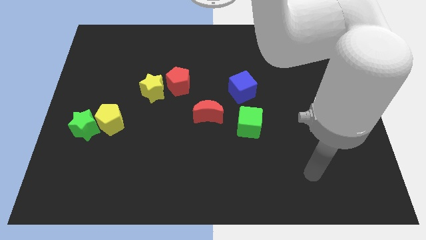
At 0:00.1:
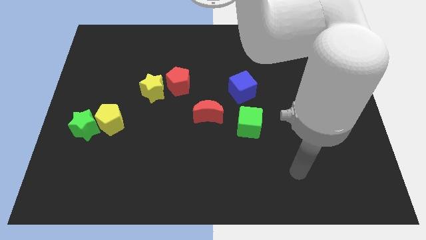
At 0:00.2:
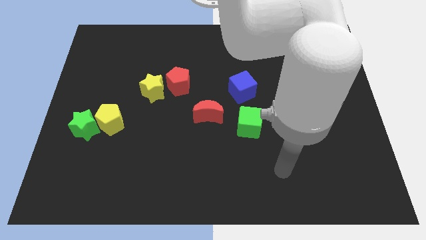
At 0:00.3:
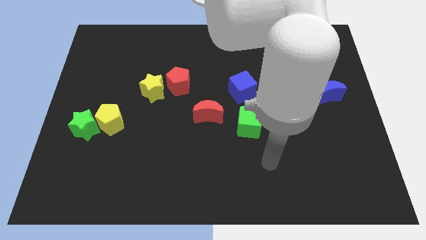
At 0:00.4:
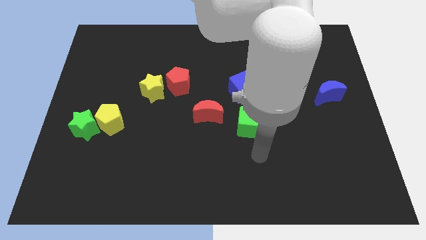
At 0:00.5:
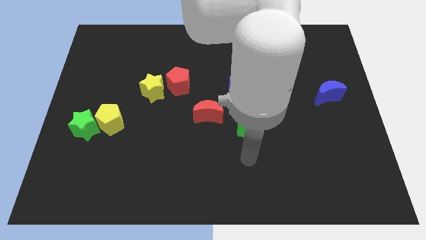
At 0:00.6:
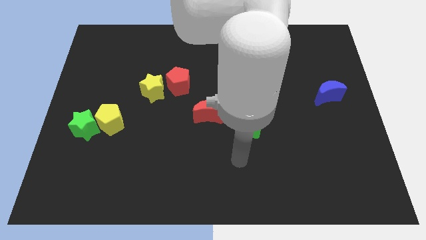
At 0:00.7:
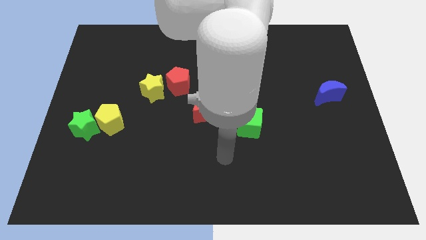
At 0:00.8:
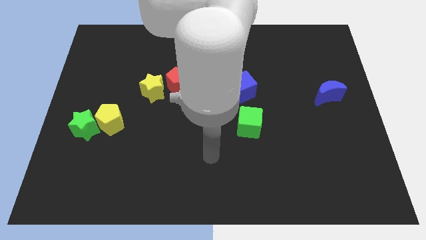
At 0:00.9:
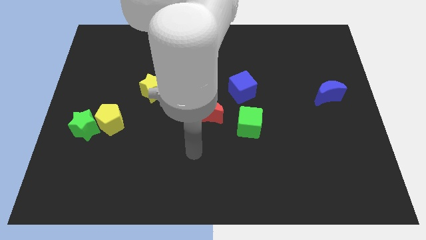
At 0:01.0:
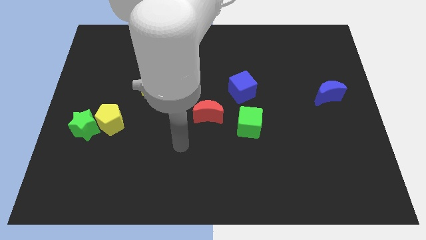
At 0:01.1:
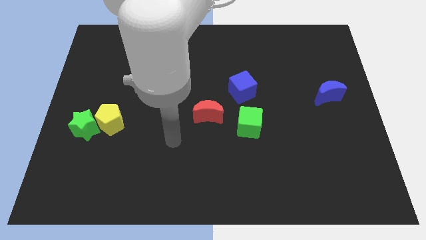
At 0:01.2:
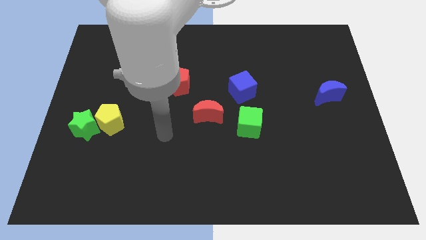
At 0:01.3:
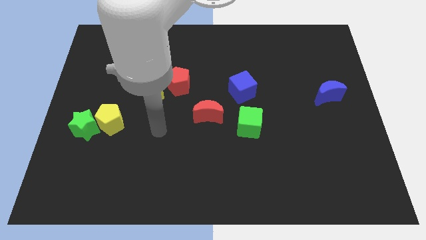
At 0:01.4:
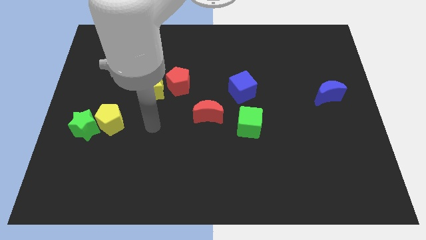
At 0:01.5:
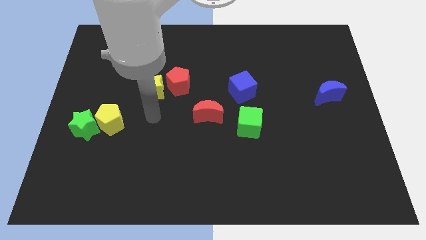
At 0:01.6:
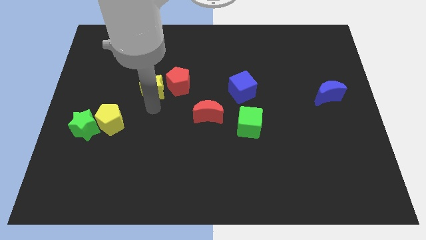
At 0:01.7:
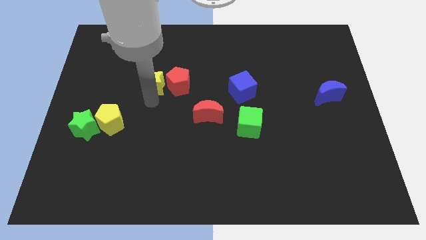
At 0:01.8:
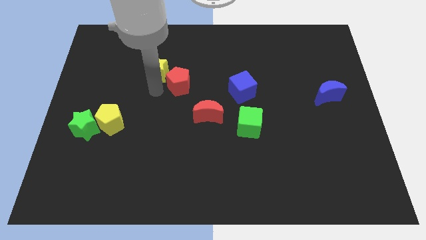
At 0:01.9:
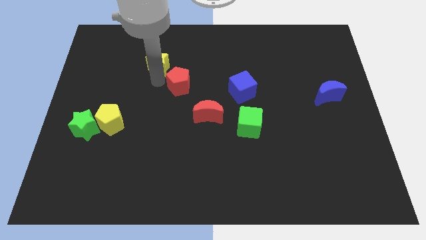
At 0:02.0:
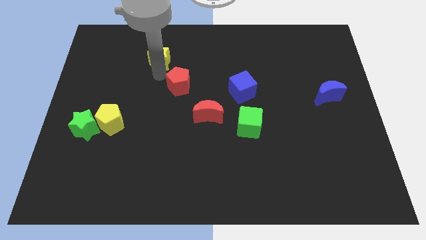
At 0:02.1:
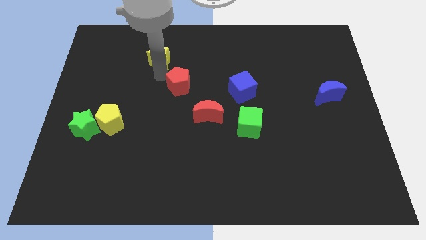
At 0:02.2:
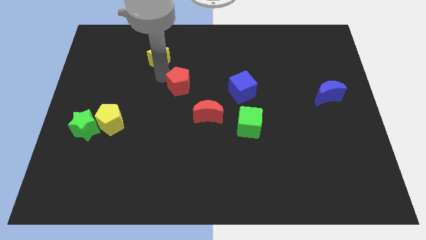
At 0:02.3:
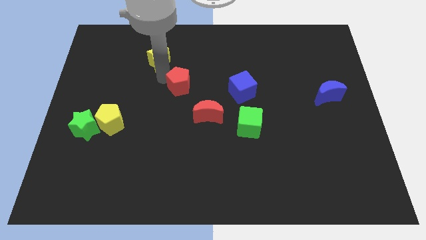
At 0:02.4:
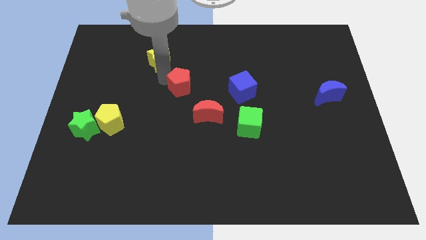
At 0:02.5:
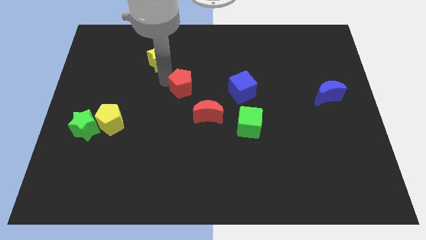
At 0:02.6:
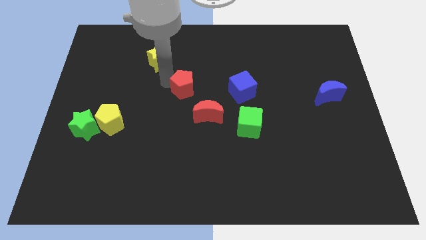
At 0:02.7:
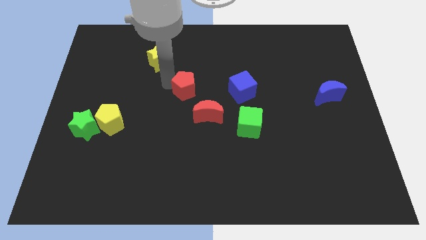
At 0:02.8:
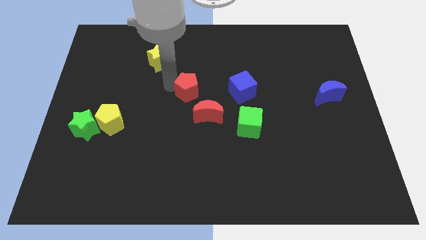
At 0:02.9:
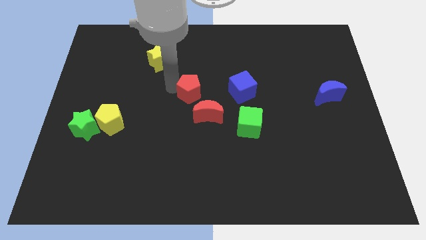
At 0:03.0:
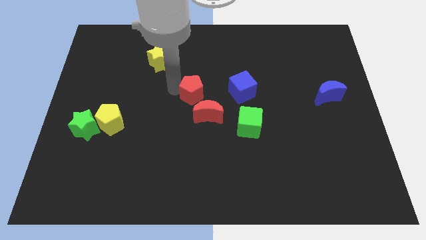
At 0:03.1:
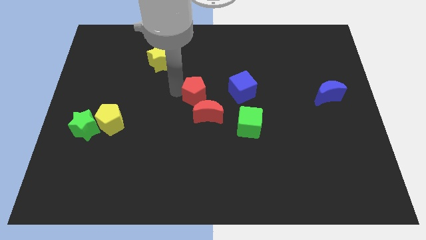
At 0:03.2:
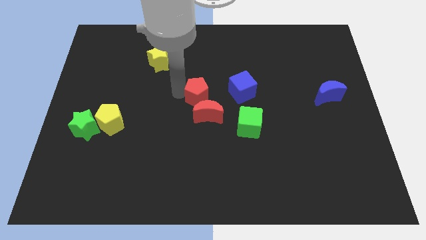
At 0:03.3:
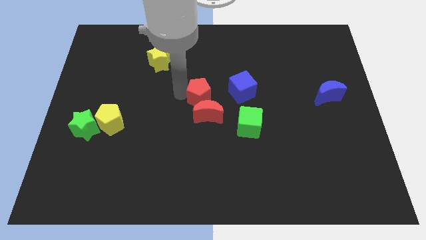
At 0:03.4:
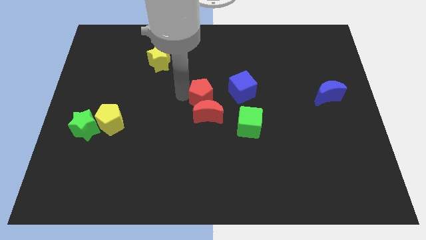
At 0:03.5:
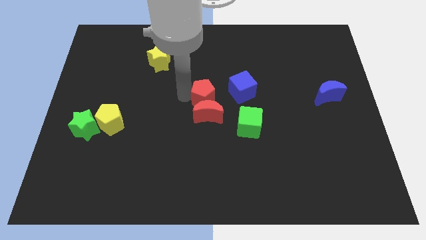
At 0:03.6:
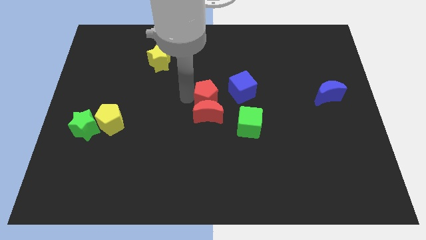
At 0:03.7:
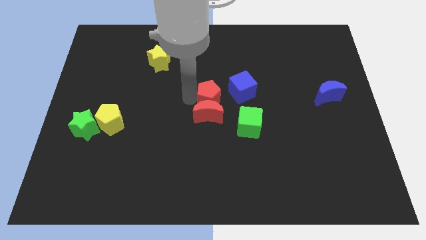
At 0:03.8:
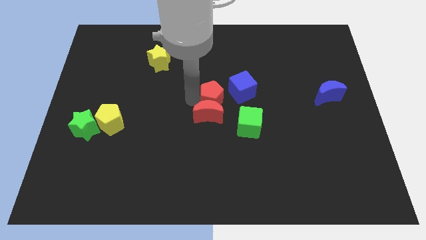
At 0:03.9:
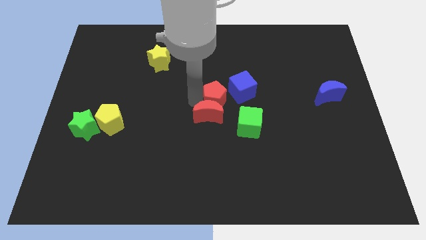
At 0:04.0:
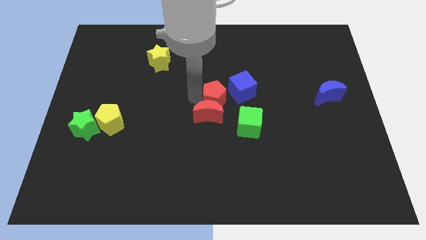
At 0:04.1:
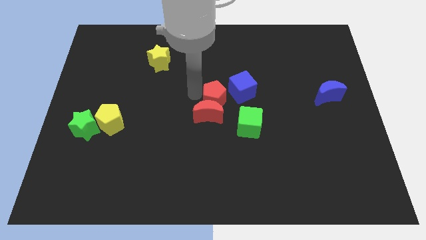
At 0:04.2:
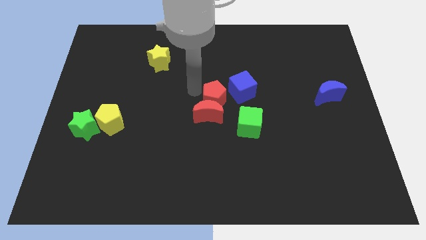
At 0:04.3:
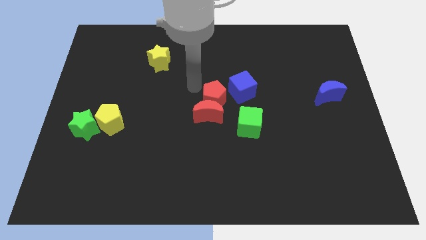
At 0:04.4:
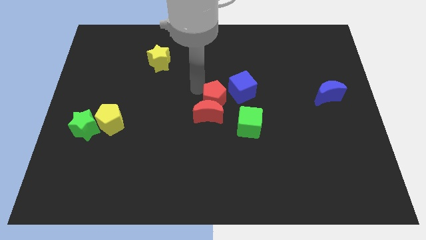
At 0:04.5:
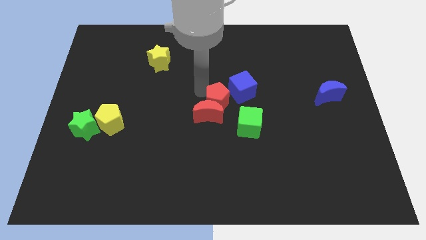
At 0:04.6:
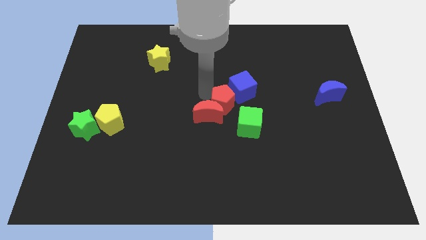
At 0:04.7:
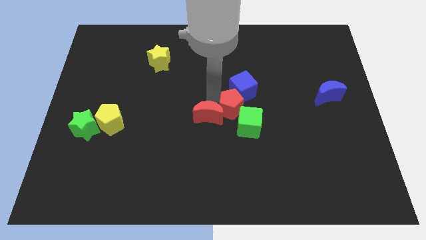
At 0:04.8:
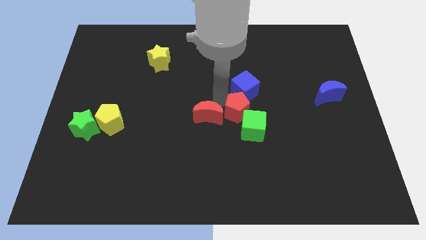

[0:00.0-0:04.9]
move the red pentagon towards the green cube

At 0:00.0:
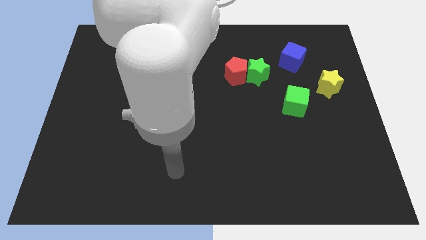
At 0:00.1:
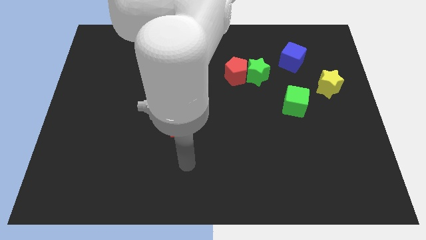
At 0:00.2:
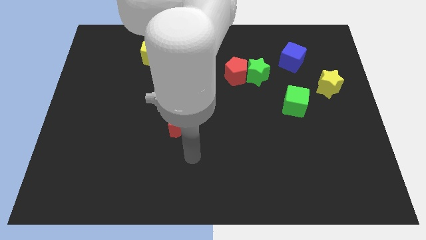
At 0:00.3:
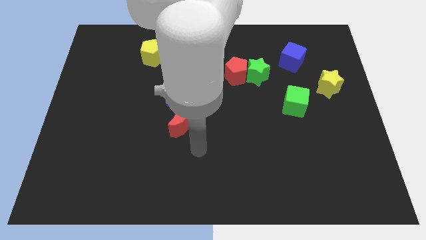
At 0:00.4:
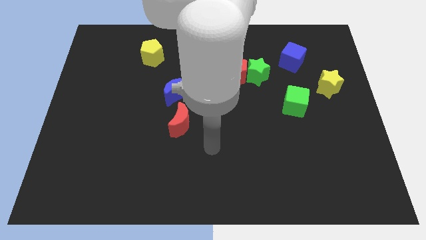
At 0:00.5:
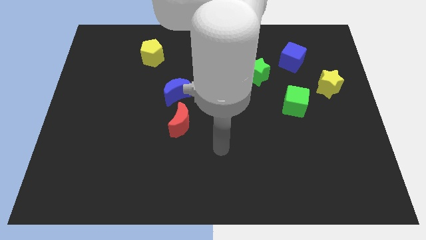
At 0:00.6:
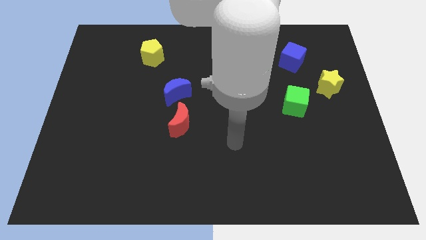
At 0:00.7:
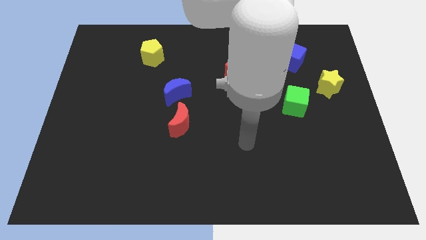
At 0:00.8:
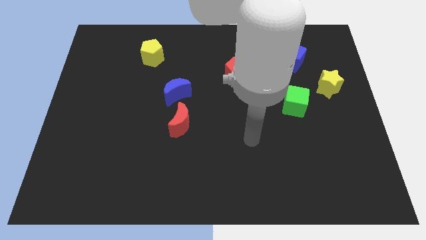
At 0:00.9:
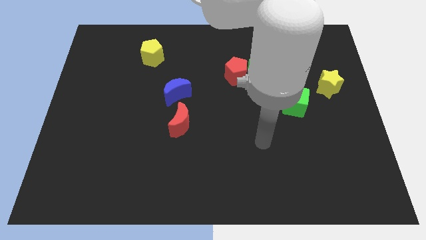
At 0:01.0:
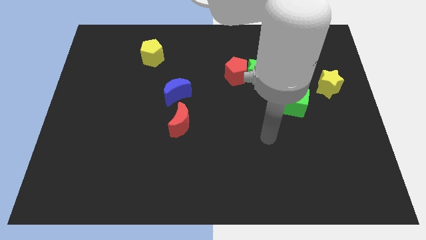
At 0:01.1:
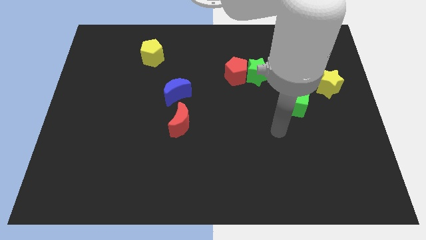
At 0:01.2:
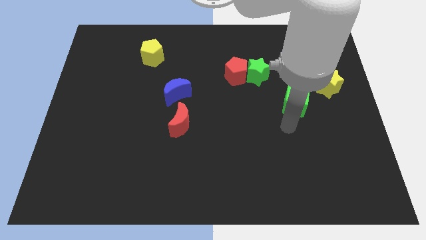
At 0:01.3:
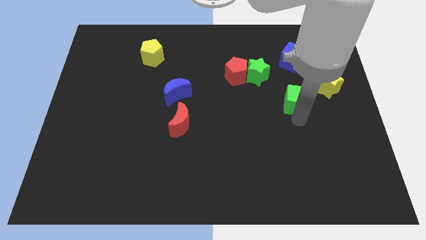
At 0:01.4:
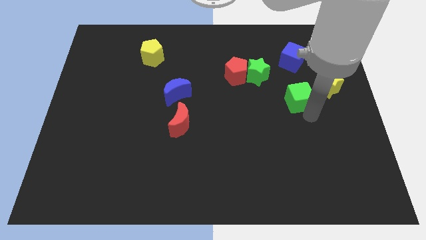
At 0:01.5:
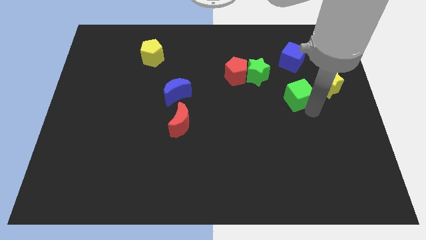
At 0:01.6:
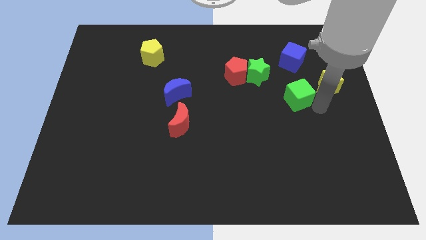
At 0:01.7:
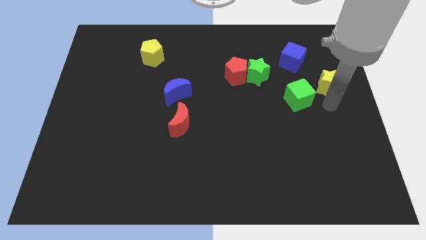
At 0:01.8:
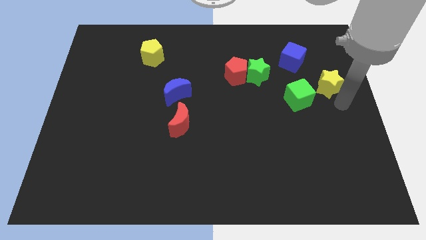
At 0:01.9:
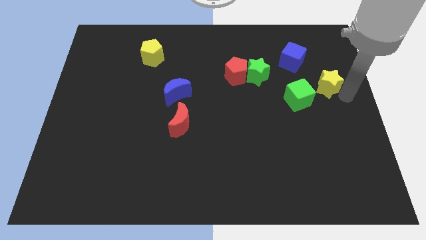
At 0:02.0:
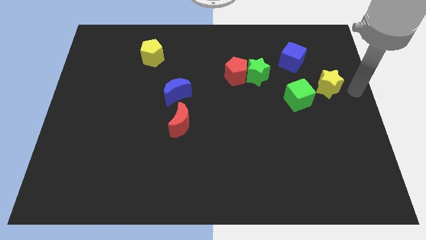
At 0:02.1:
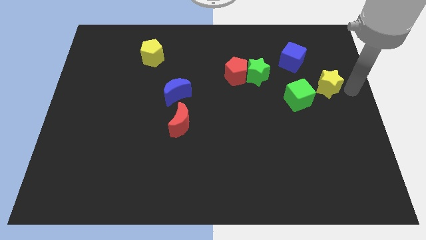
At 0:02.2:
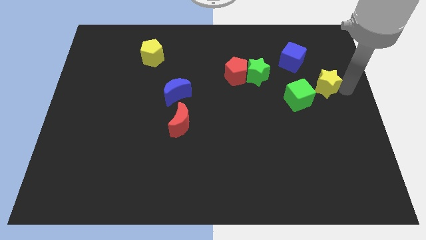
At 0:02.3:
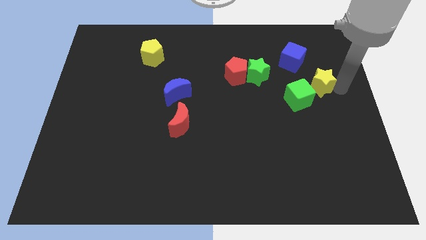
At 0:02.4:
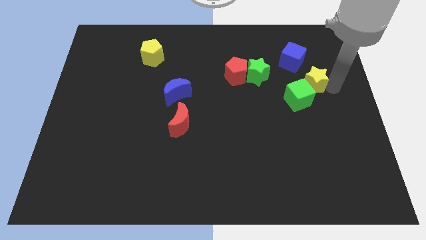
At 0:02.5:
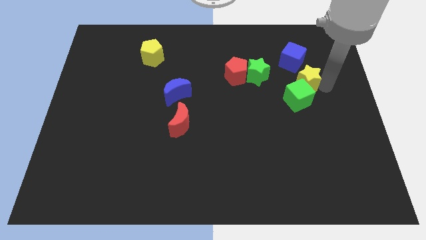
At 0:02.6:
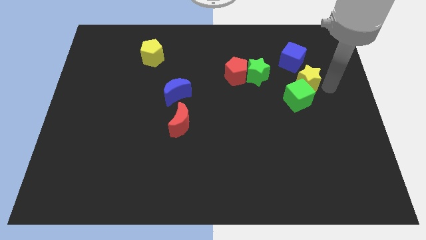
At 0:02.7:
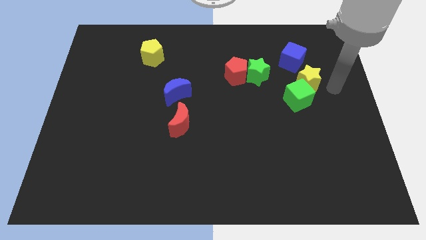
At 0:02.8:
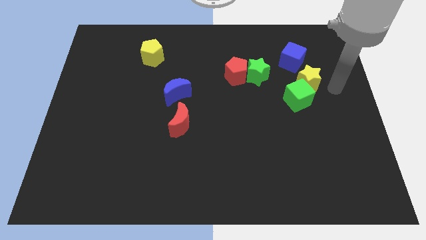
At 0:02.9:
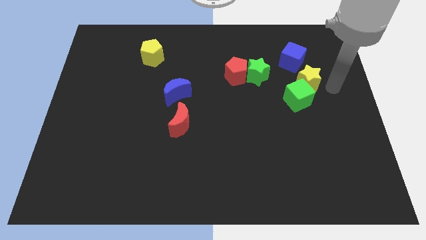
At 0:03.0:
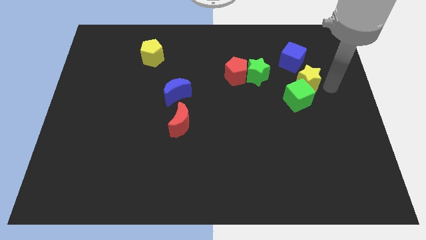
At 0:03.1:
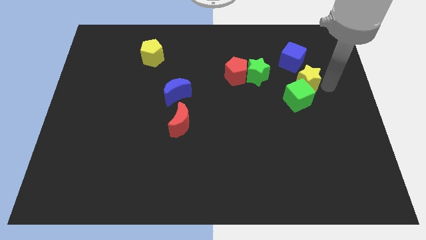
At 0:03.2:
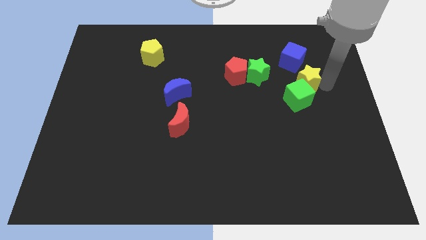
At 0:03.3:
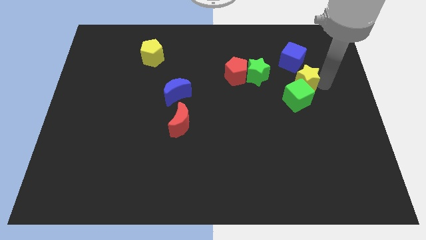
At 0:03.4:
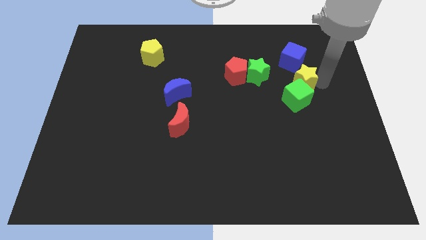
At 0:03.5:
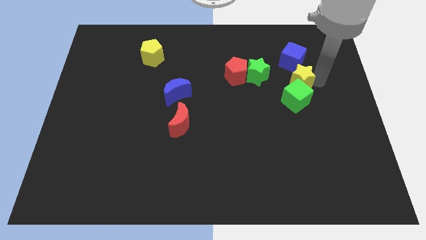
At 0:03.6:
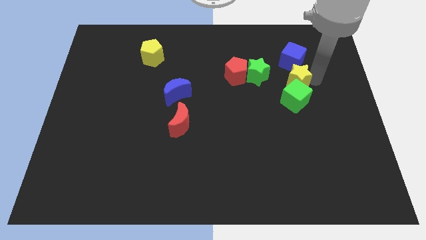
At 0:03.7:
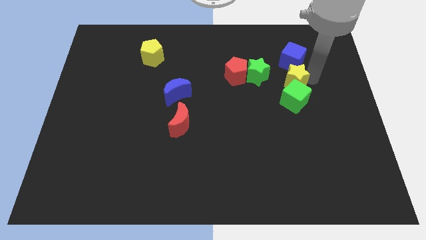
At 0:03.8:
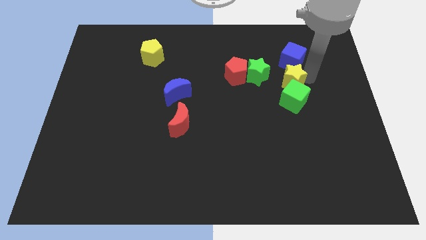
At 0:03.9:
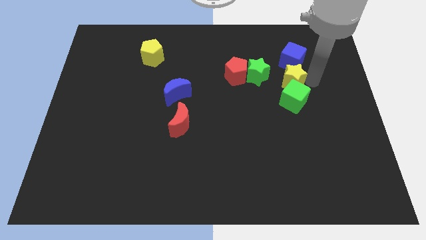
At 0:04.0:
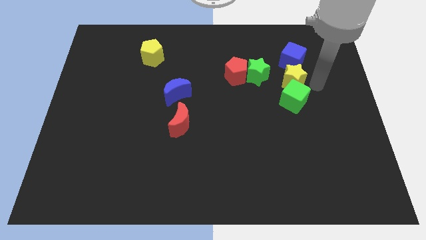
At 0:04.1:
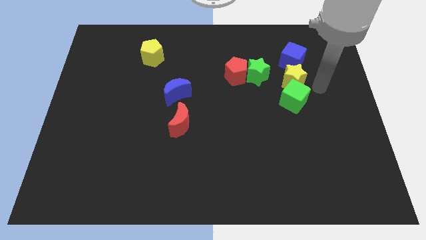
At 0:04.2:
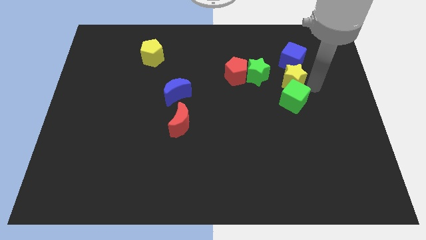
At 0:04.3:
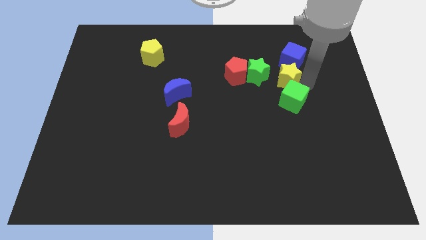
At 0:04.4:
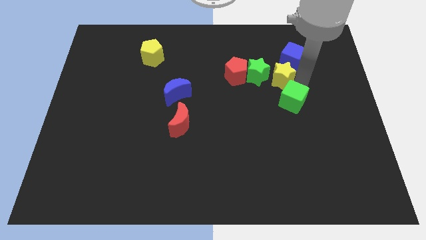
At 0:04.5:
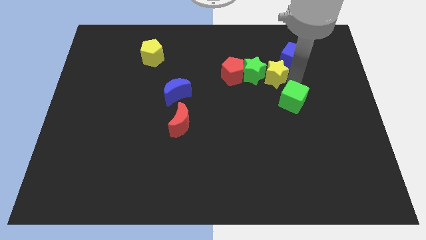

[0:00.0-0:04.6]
slide the yellow star next to the green star
